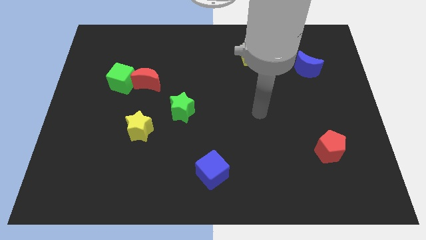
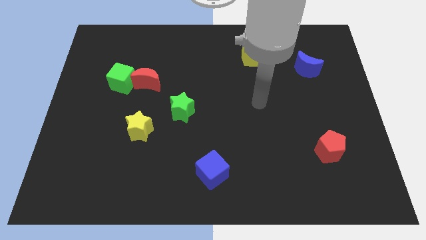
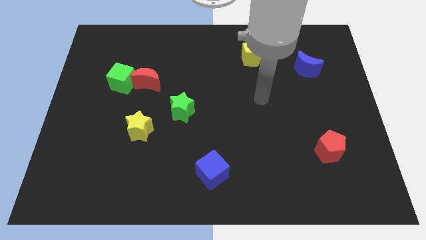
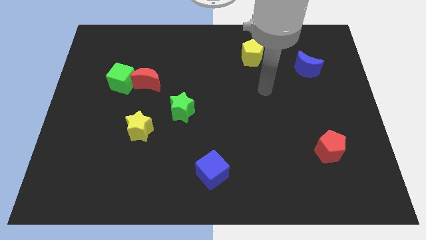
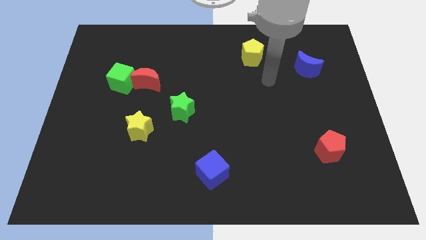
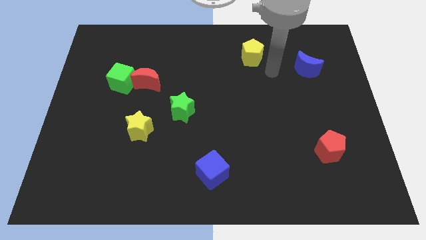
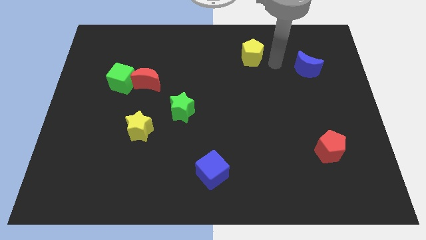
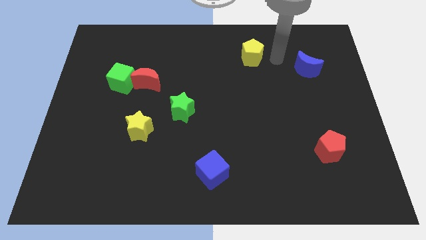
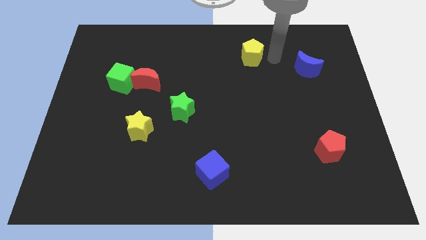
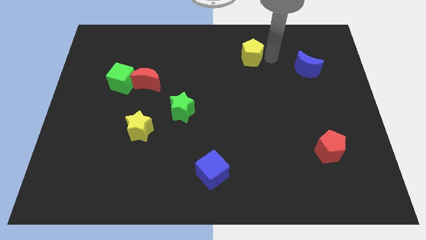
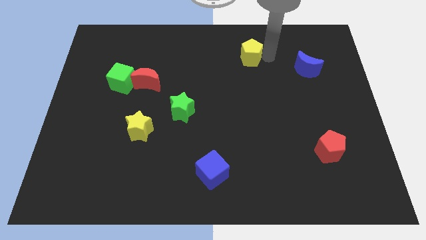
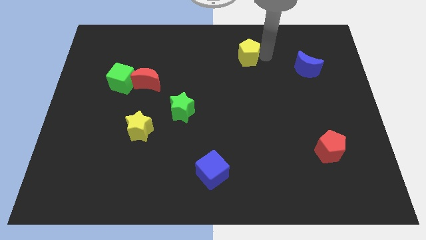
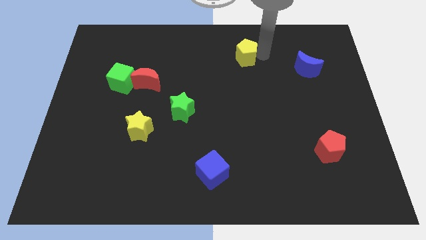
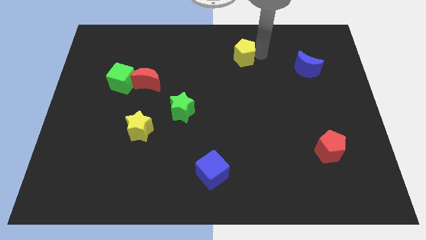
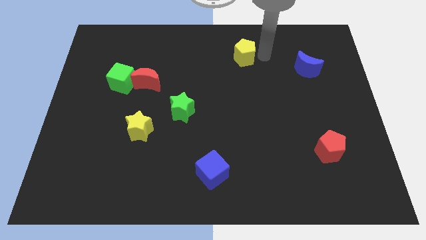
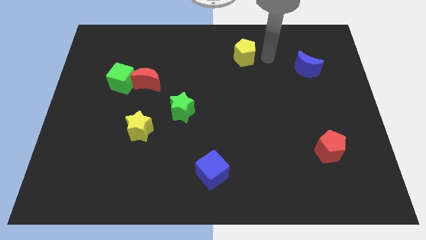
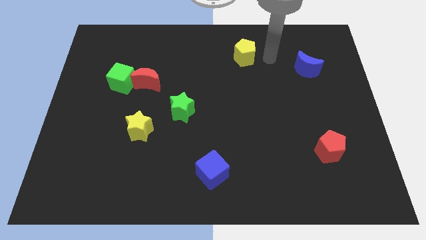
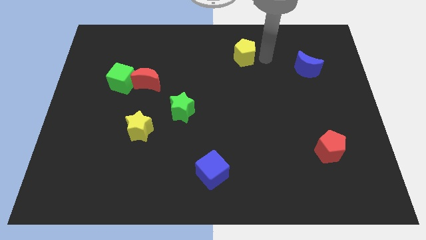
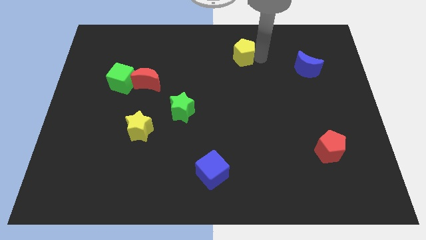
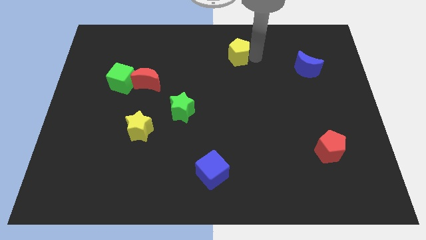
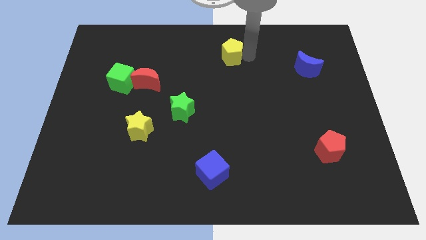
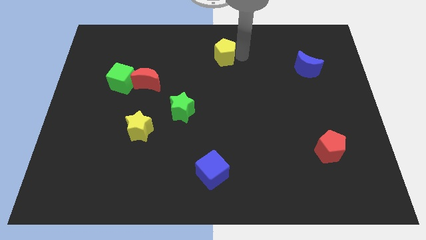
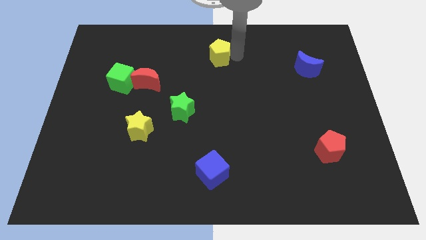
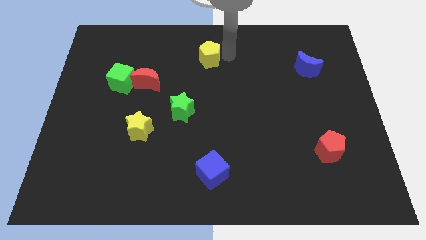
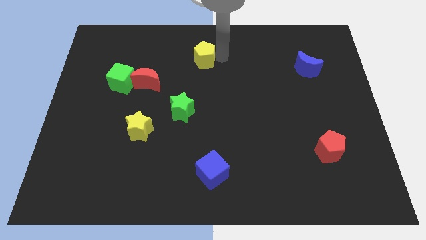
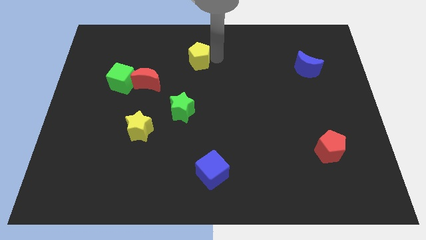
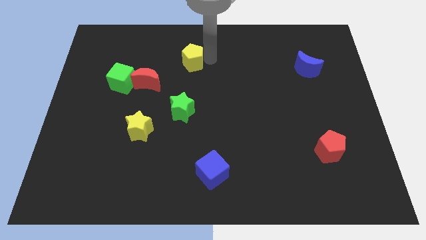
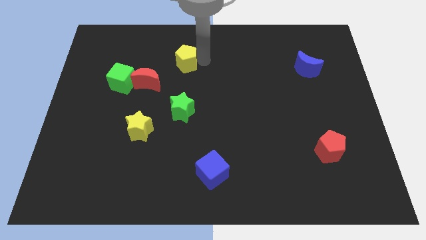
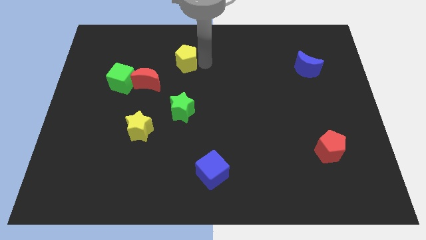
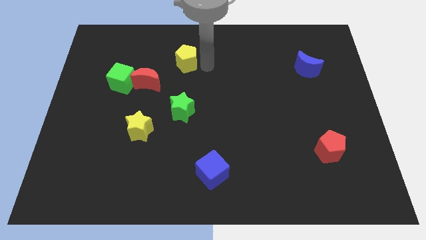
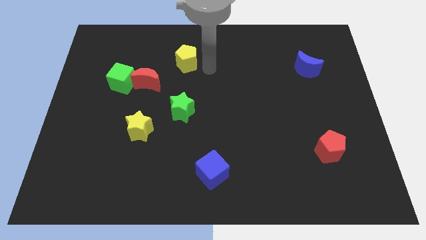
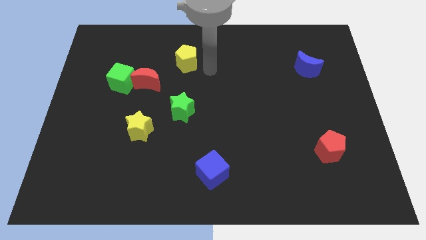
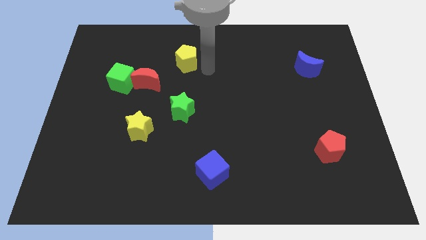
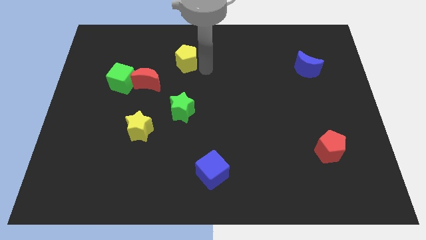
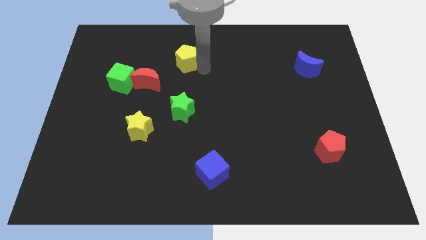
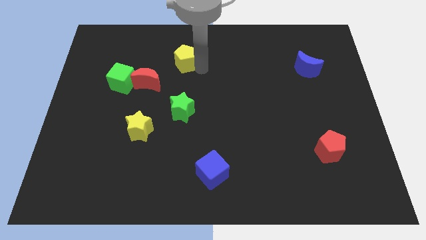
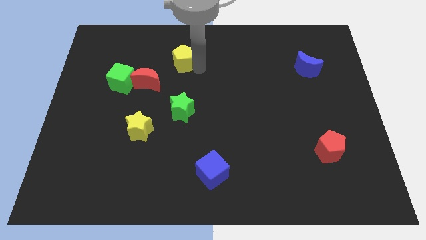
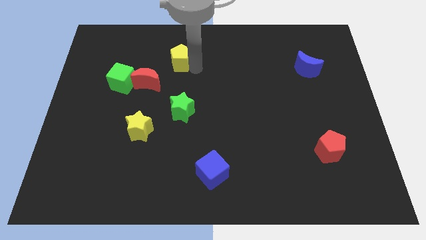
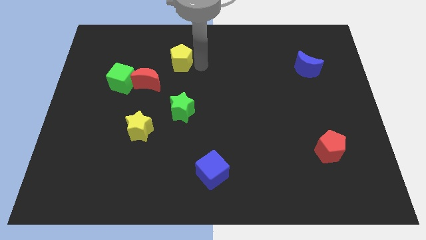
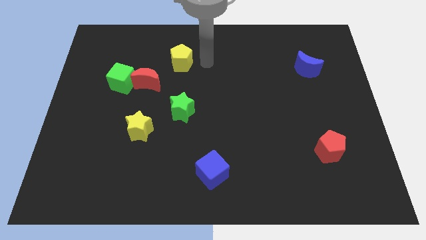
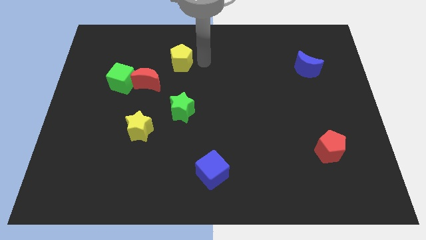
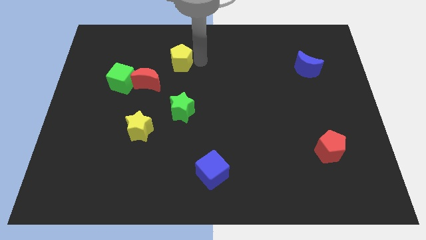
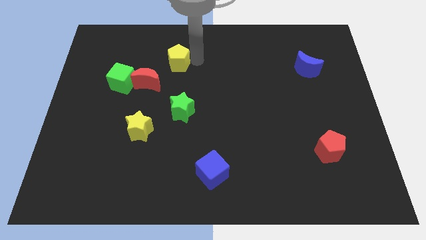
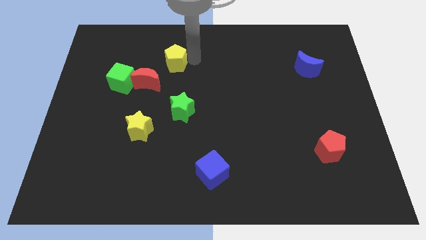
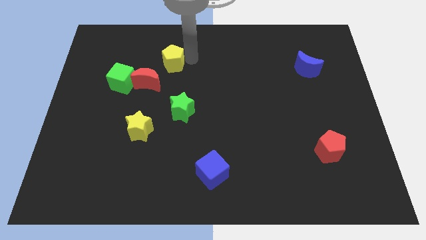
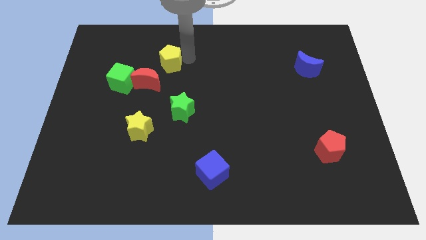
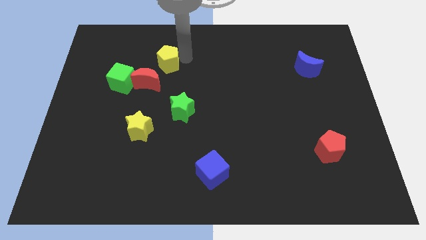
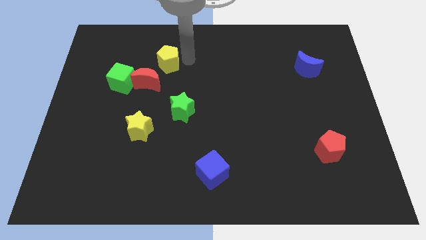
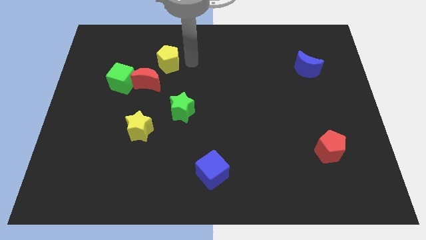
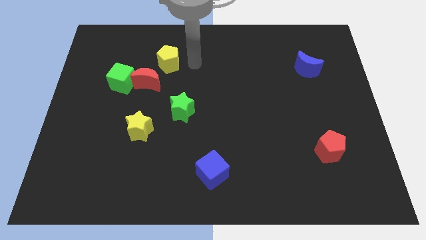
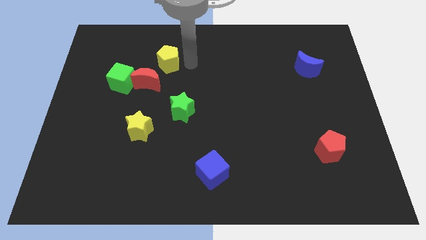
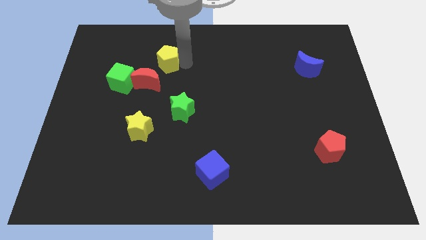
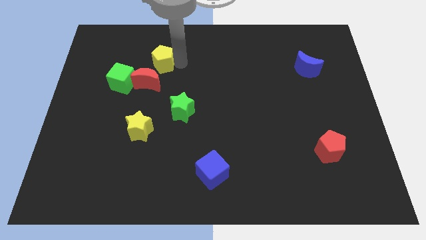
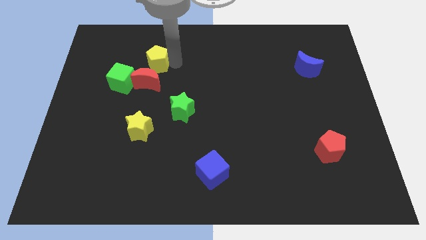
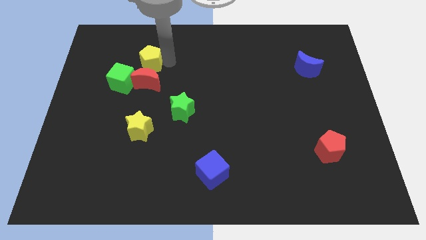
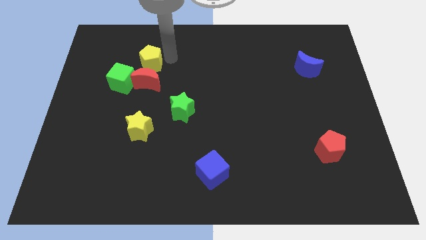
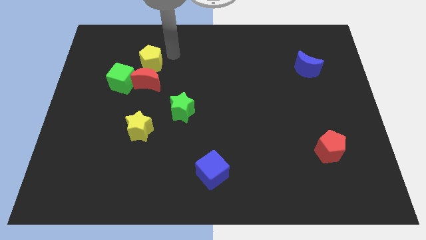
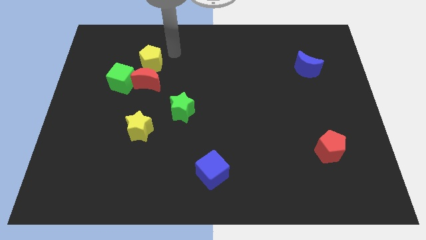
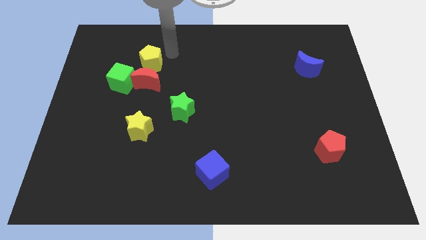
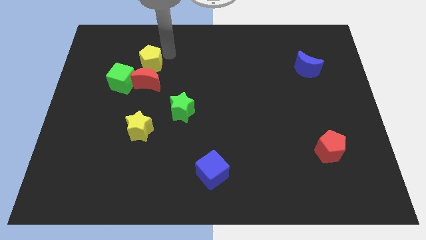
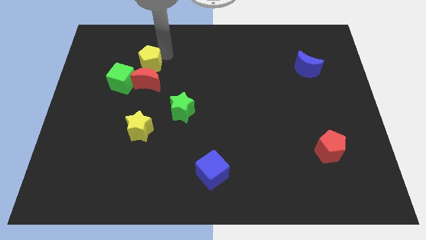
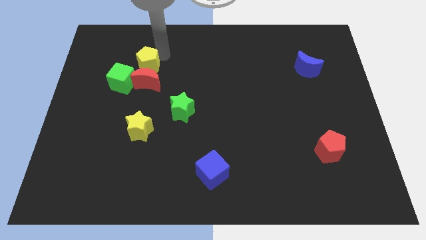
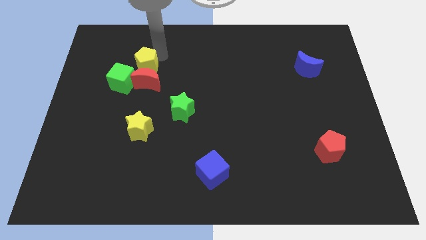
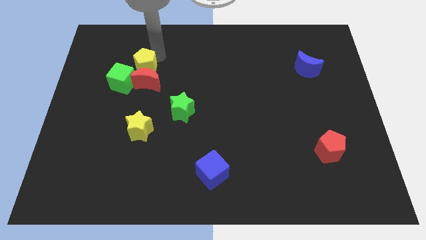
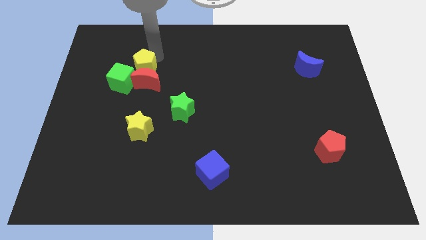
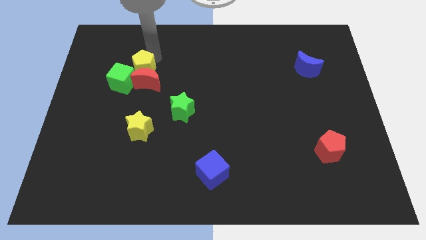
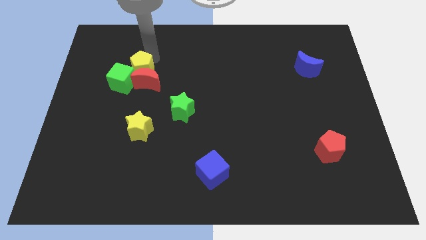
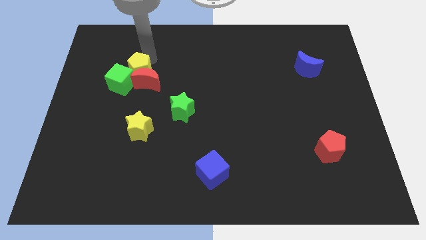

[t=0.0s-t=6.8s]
move the yellow pentagon next to the green cube

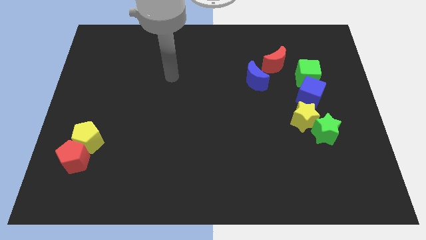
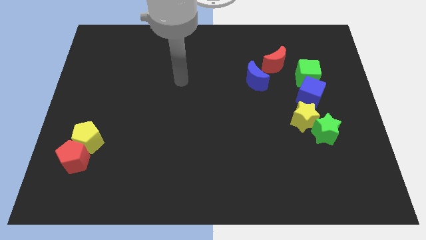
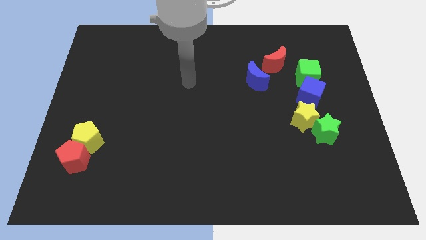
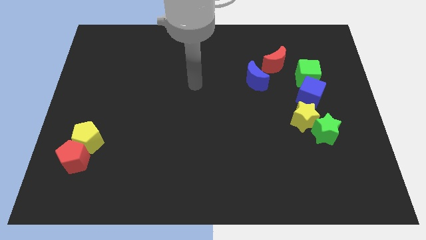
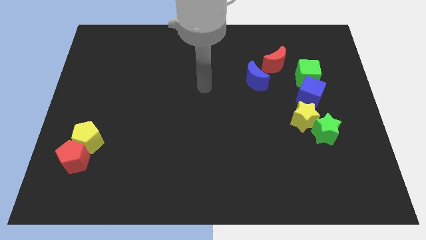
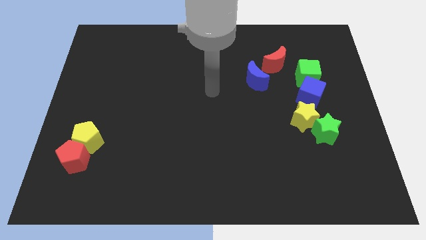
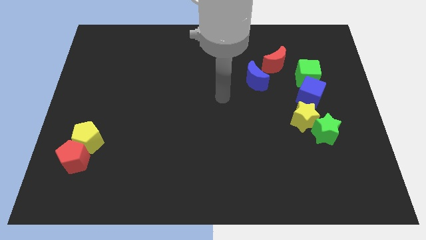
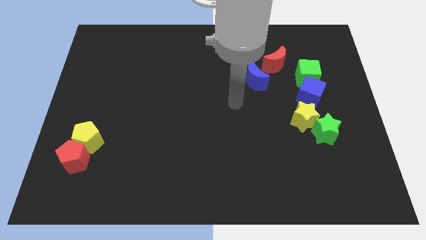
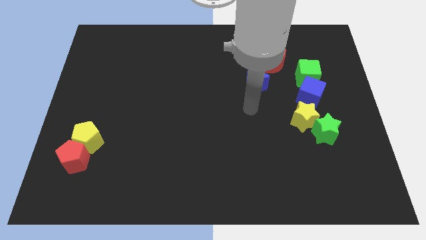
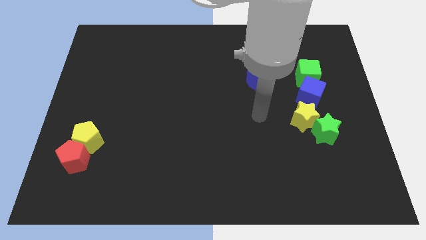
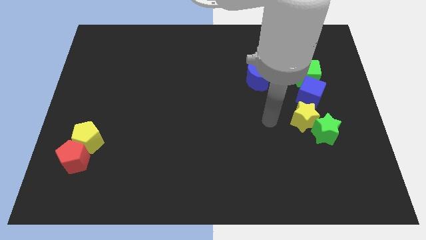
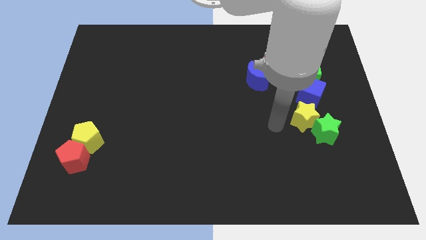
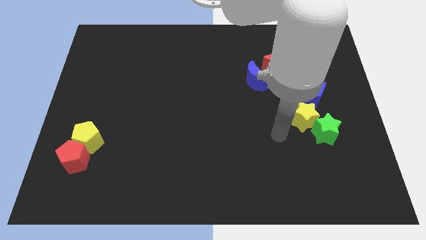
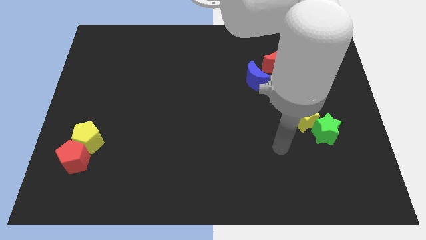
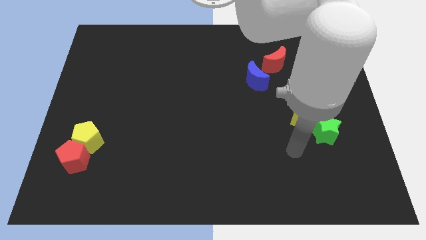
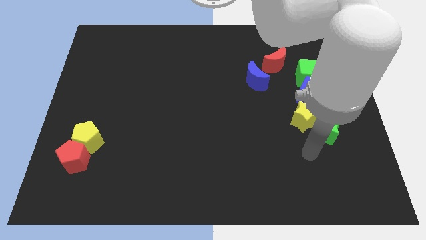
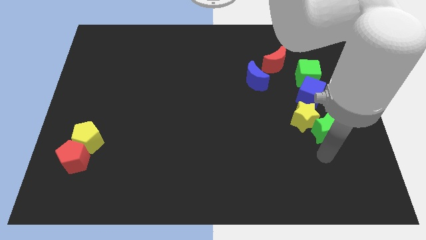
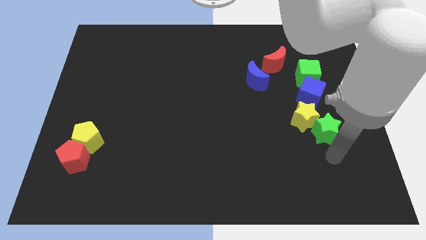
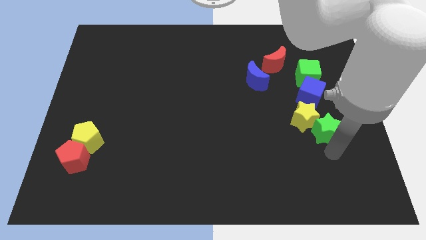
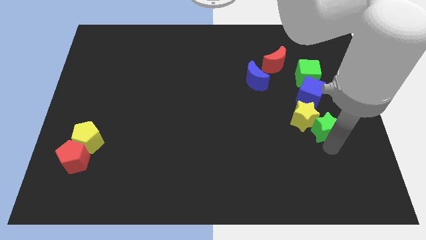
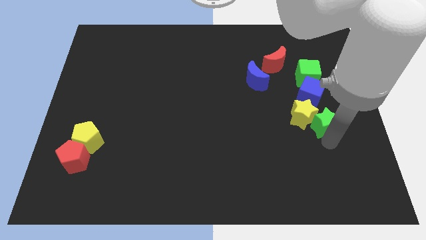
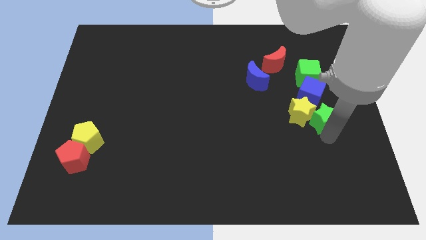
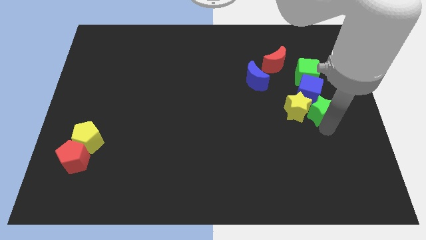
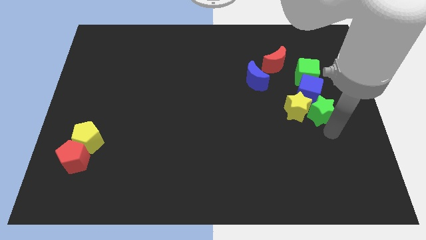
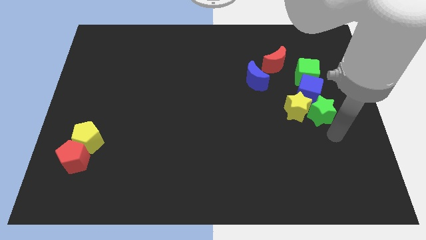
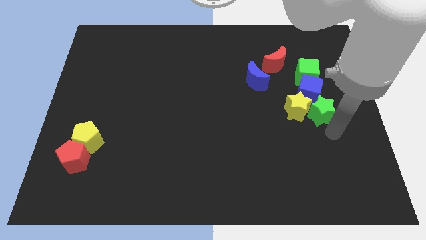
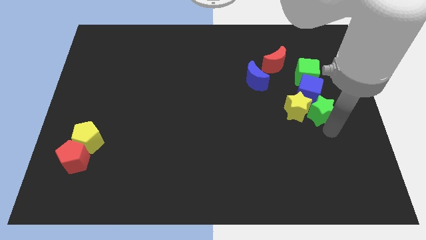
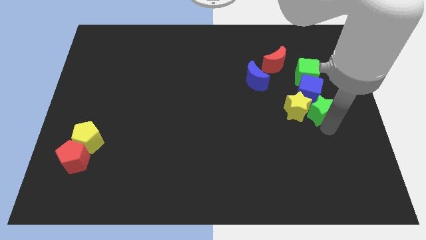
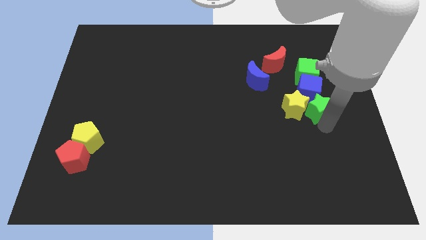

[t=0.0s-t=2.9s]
put the green star to the blue cube
